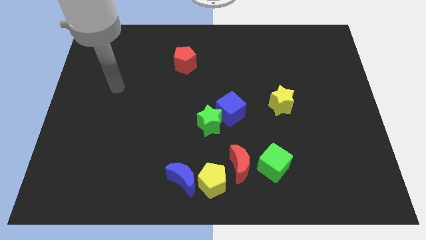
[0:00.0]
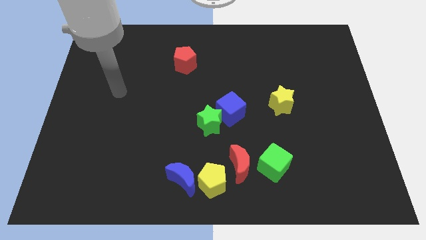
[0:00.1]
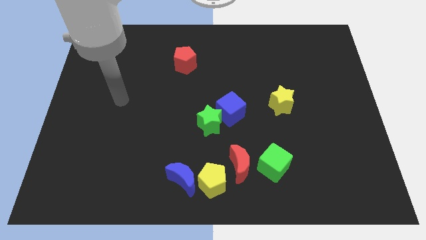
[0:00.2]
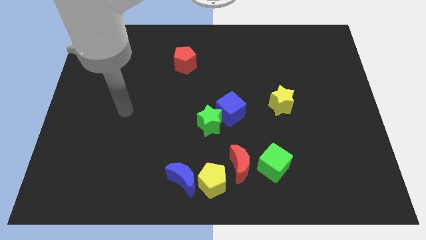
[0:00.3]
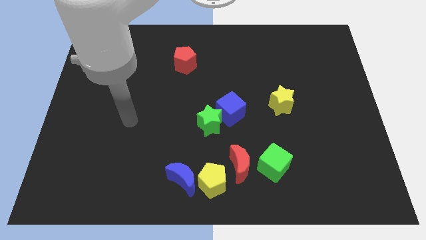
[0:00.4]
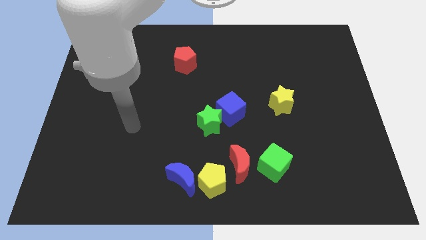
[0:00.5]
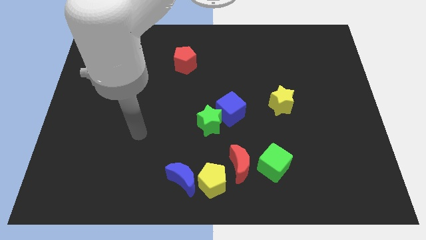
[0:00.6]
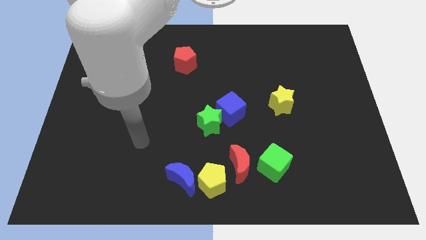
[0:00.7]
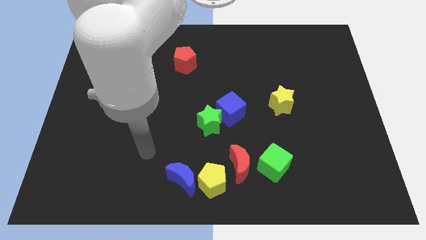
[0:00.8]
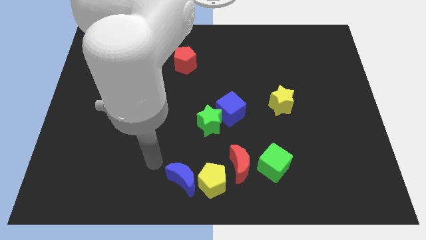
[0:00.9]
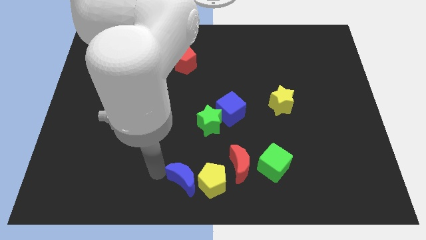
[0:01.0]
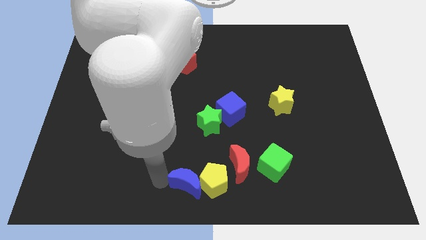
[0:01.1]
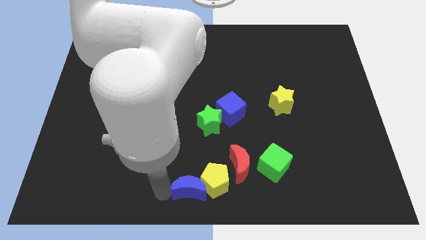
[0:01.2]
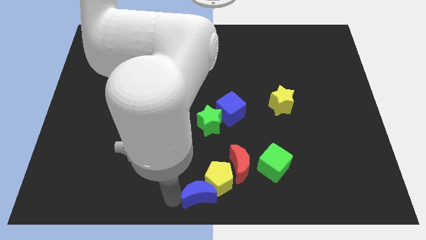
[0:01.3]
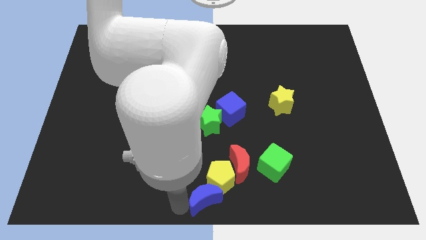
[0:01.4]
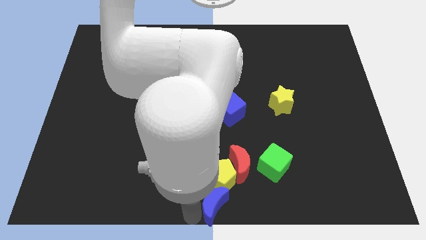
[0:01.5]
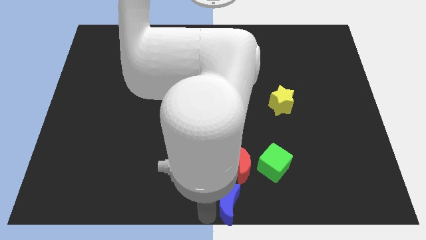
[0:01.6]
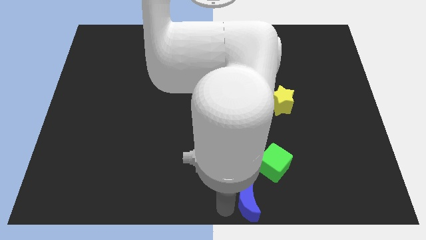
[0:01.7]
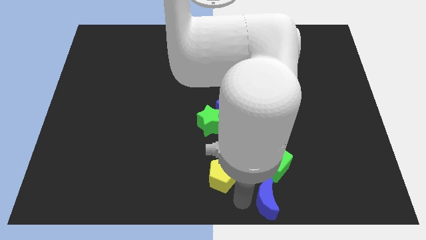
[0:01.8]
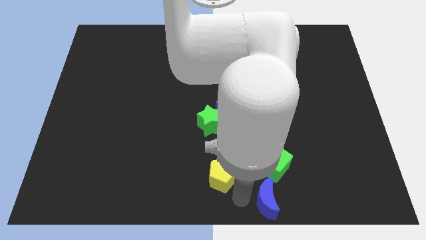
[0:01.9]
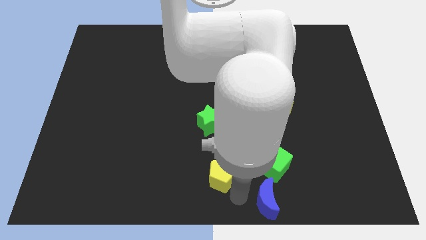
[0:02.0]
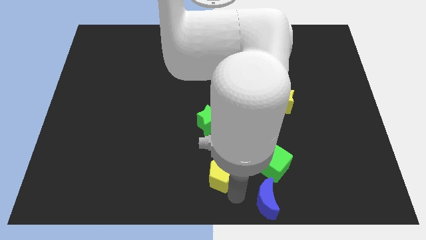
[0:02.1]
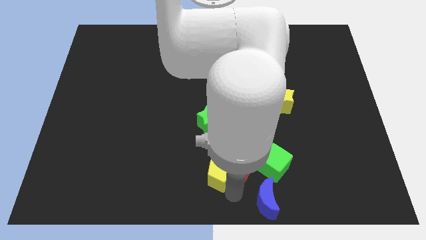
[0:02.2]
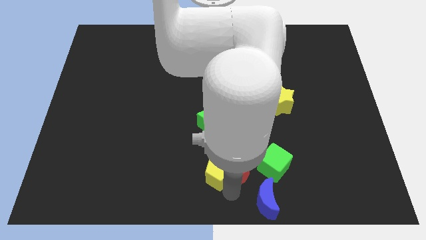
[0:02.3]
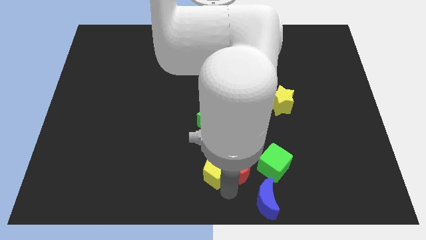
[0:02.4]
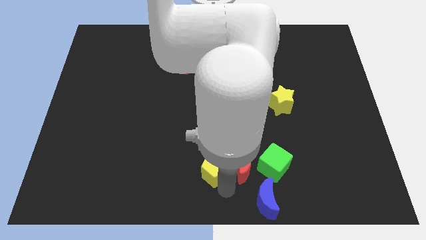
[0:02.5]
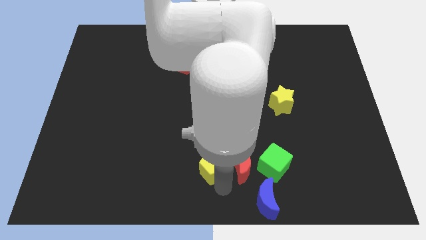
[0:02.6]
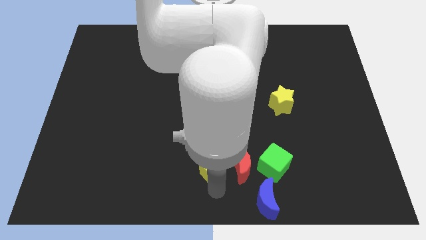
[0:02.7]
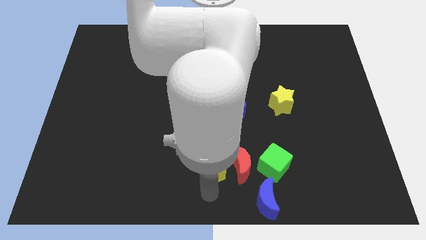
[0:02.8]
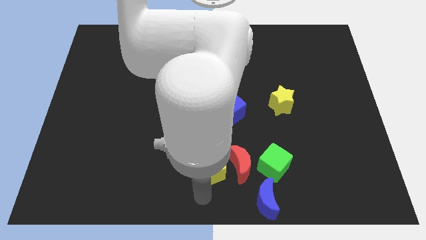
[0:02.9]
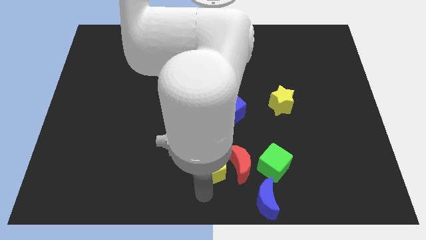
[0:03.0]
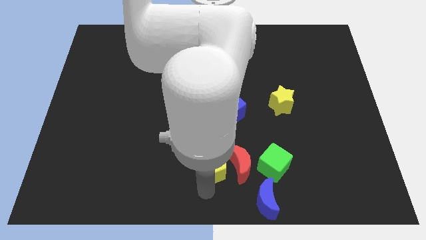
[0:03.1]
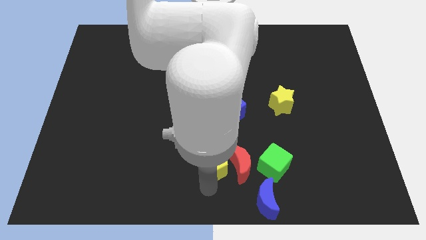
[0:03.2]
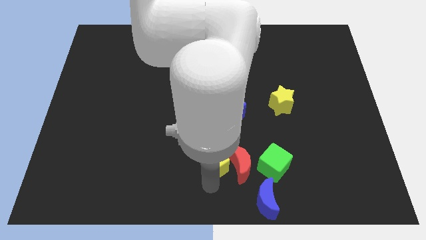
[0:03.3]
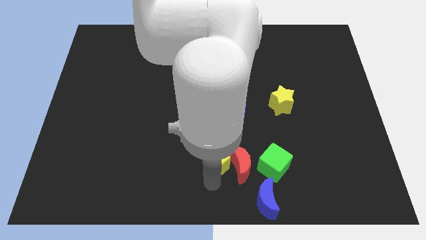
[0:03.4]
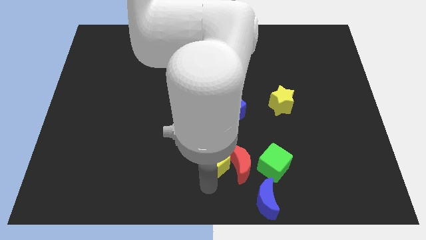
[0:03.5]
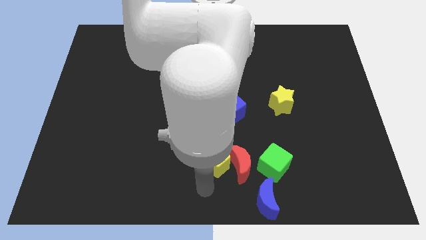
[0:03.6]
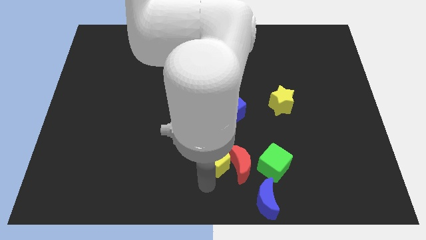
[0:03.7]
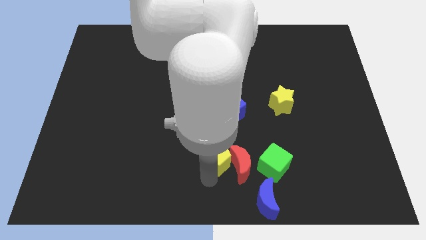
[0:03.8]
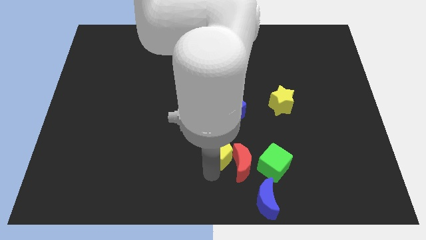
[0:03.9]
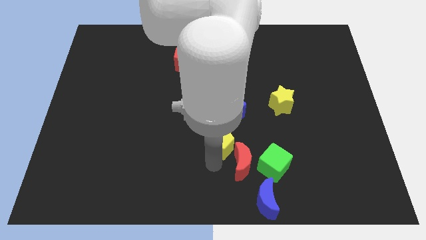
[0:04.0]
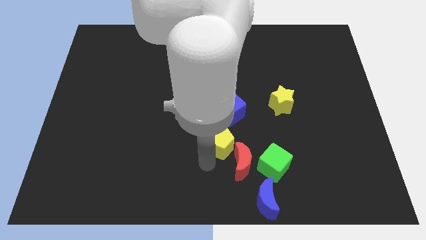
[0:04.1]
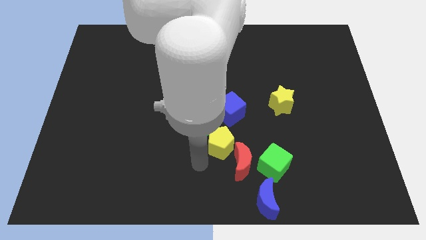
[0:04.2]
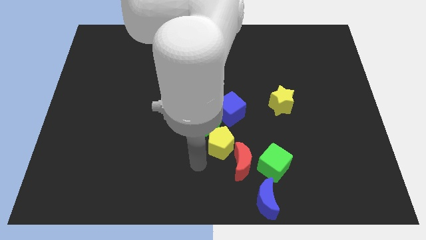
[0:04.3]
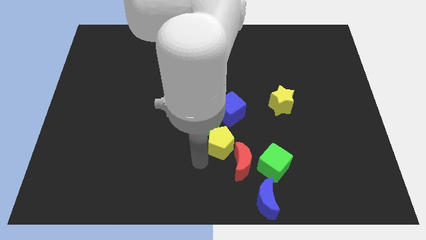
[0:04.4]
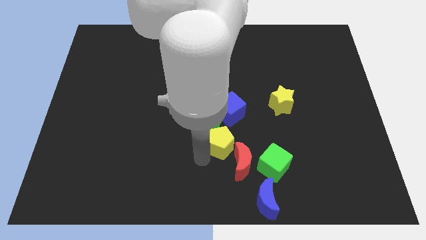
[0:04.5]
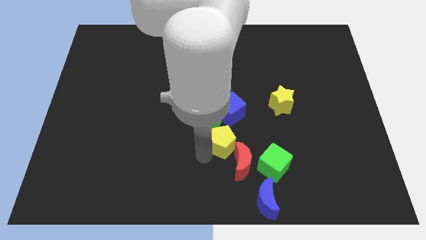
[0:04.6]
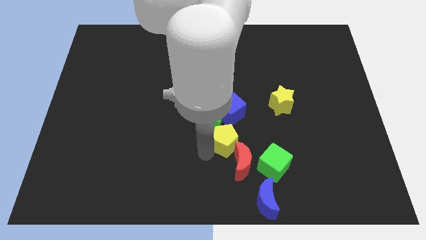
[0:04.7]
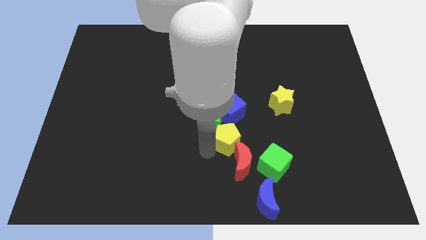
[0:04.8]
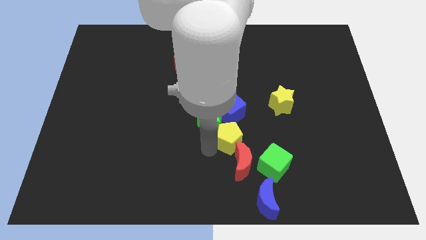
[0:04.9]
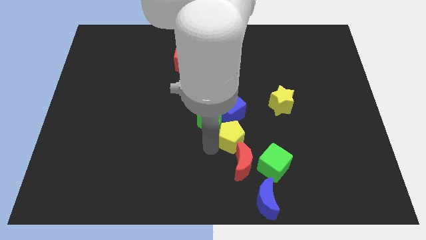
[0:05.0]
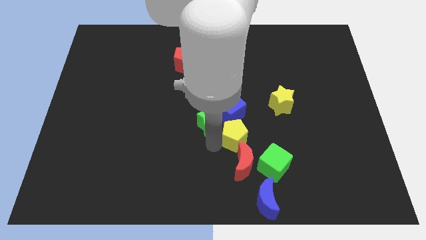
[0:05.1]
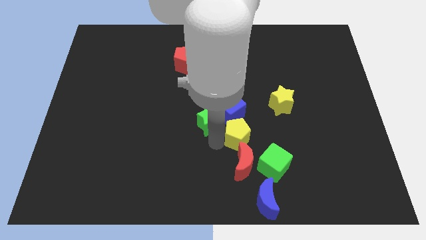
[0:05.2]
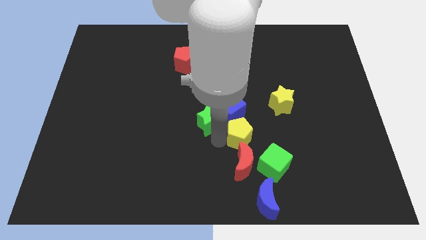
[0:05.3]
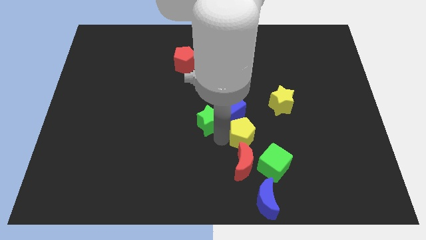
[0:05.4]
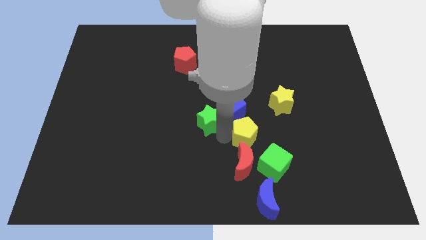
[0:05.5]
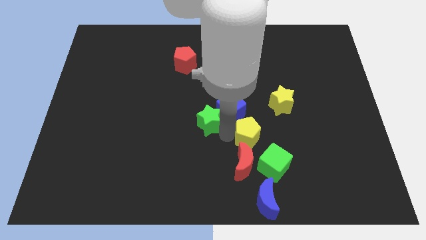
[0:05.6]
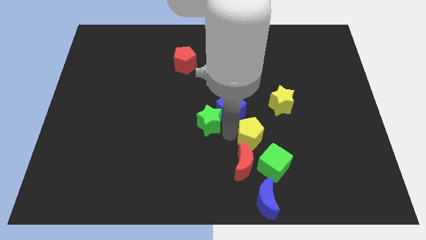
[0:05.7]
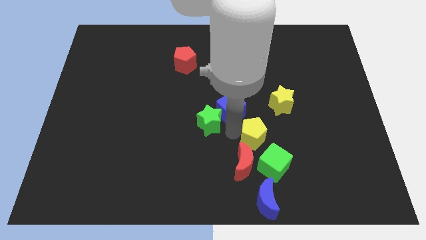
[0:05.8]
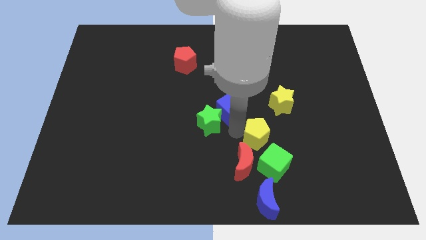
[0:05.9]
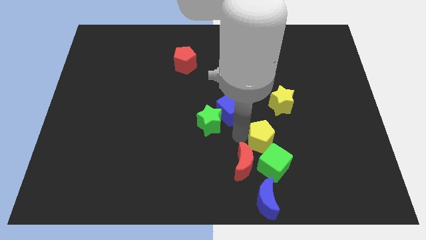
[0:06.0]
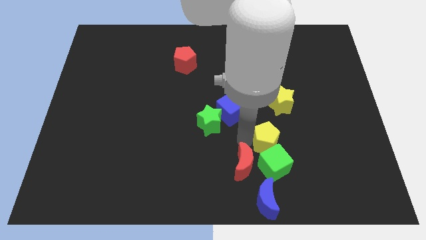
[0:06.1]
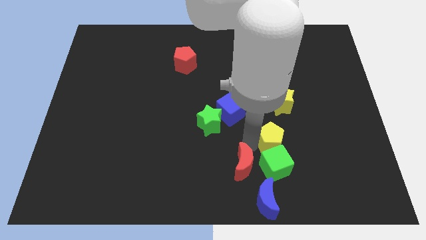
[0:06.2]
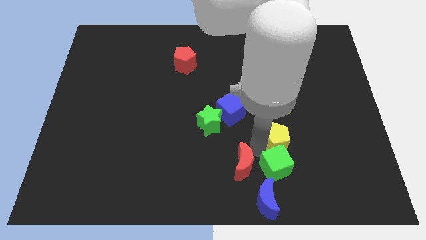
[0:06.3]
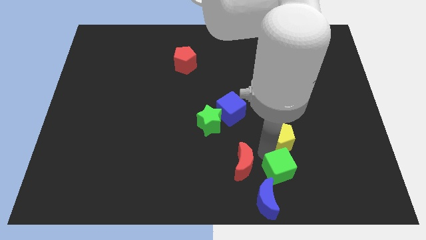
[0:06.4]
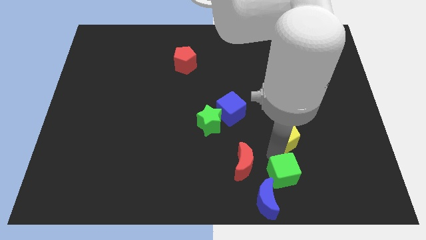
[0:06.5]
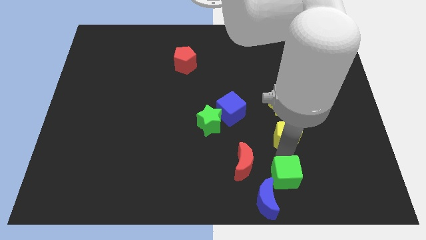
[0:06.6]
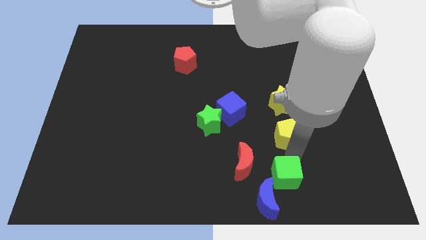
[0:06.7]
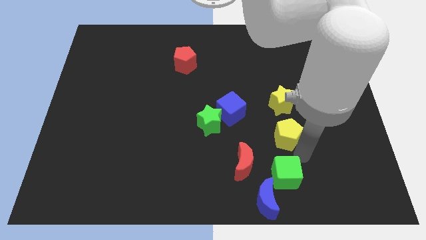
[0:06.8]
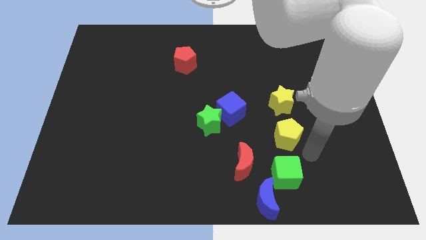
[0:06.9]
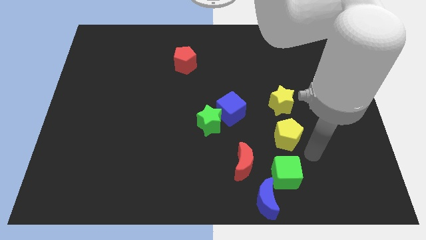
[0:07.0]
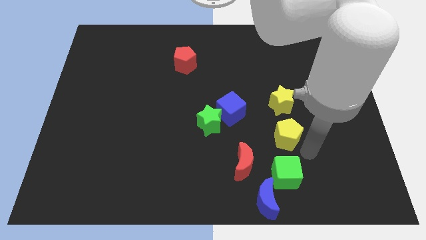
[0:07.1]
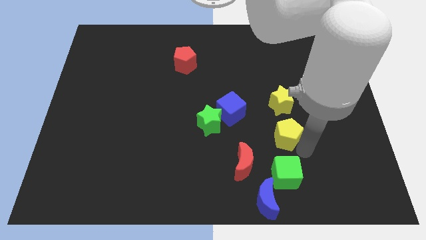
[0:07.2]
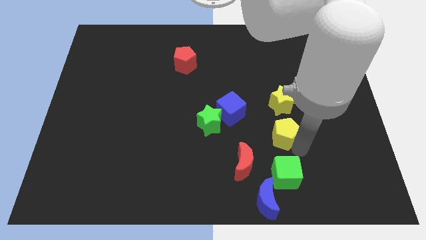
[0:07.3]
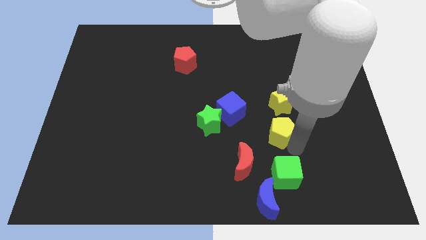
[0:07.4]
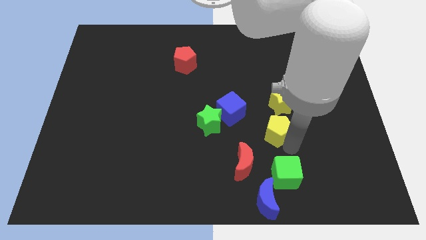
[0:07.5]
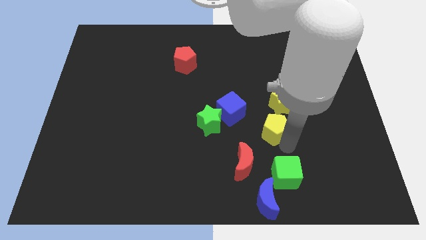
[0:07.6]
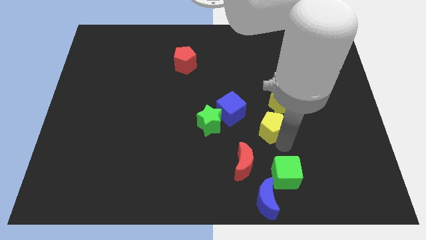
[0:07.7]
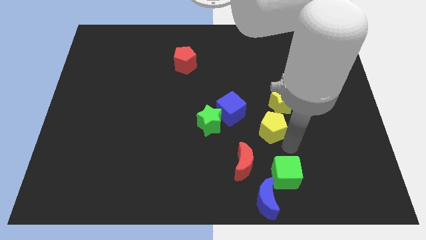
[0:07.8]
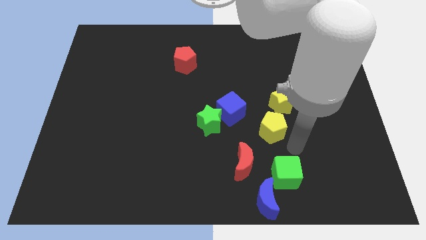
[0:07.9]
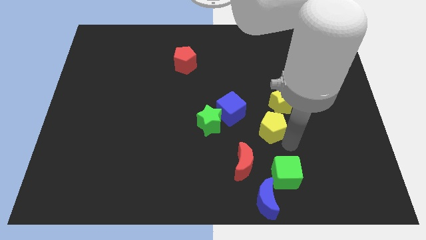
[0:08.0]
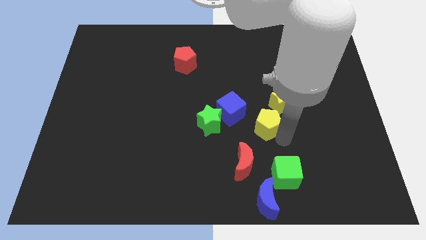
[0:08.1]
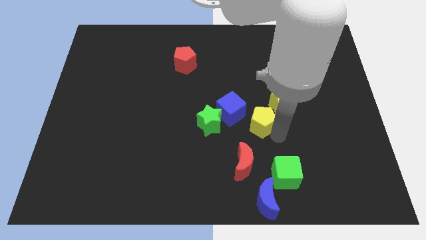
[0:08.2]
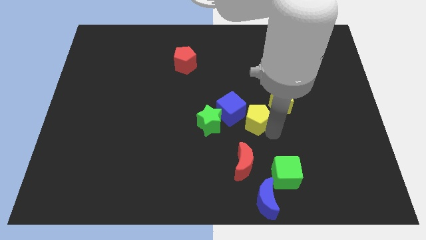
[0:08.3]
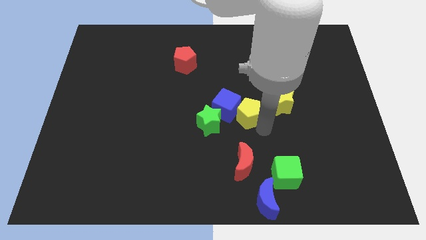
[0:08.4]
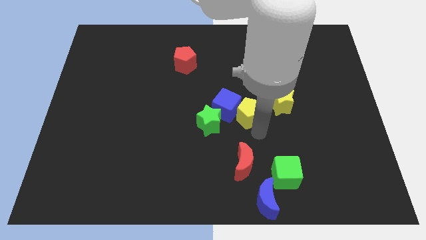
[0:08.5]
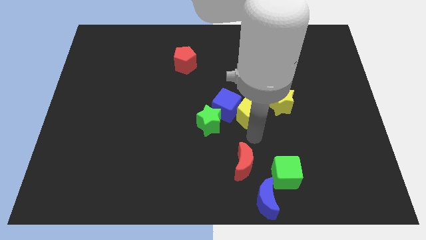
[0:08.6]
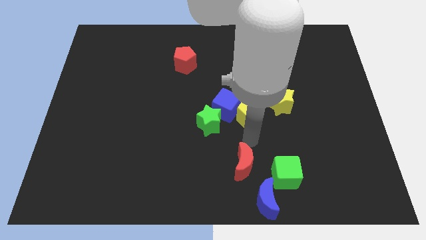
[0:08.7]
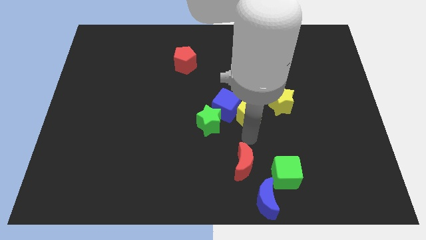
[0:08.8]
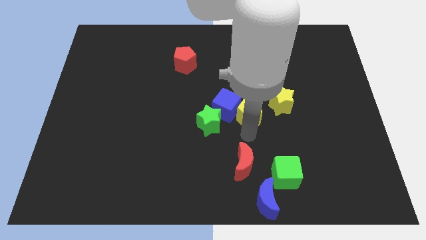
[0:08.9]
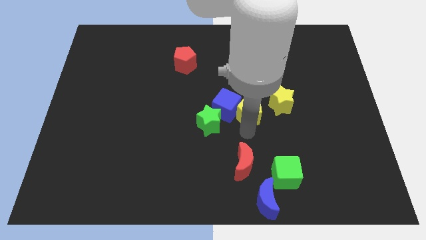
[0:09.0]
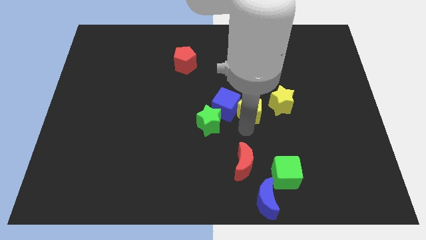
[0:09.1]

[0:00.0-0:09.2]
slide the yellow pentagon diagonally up and to the right of the blue cube
